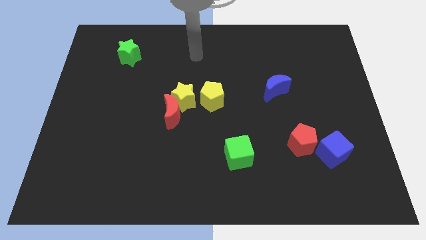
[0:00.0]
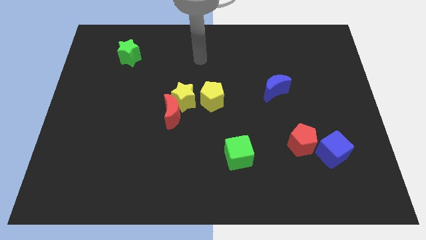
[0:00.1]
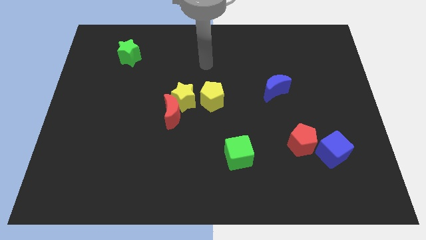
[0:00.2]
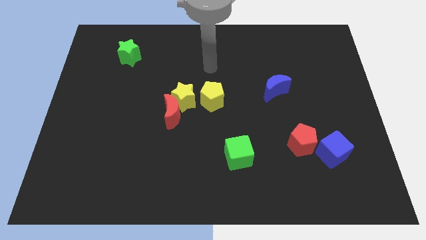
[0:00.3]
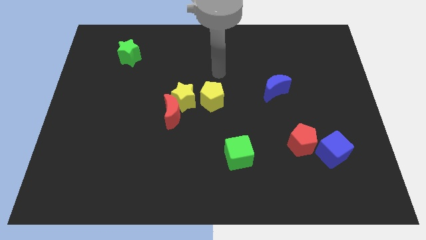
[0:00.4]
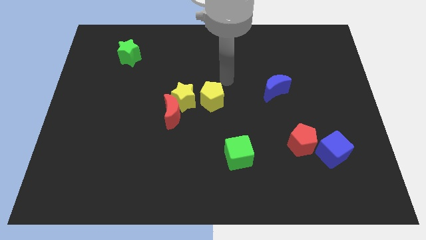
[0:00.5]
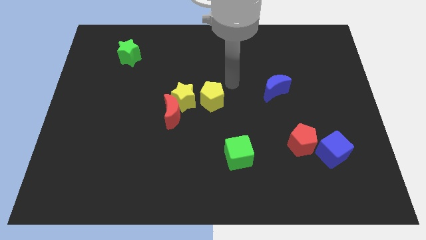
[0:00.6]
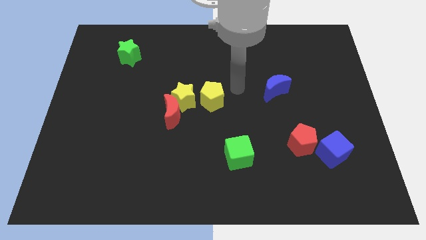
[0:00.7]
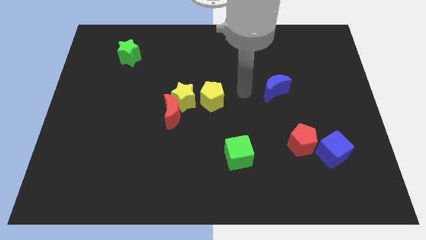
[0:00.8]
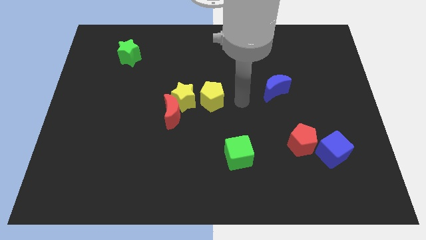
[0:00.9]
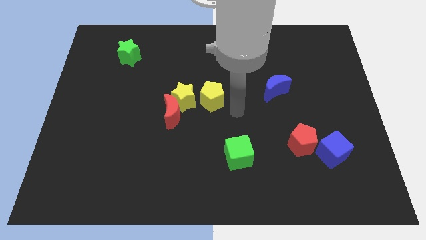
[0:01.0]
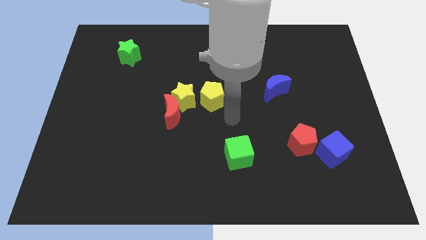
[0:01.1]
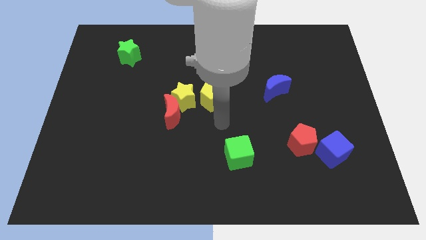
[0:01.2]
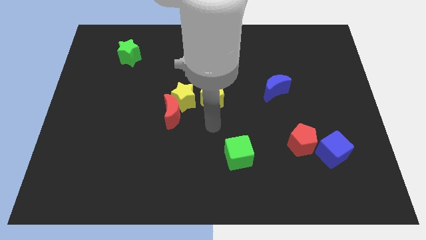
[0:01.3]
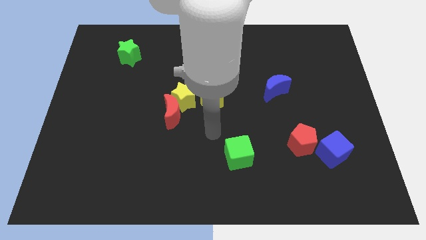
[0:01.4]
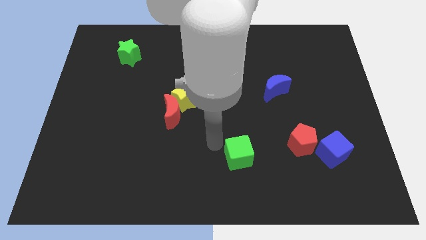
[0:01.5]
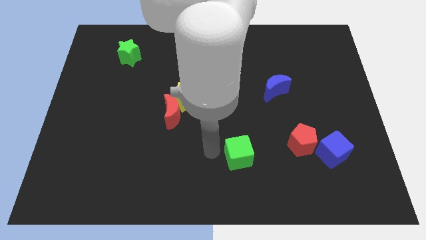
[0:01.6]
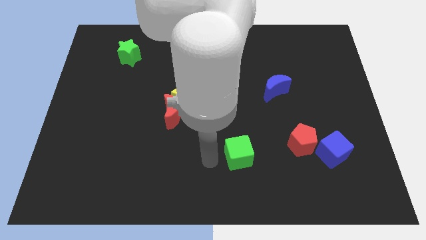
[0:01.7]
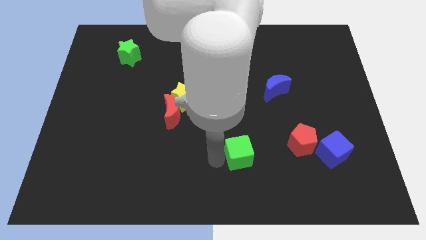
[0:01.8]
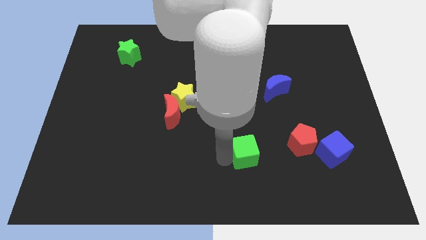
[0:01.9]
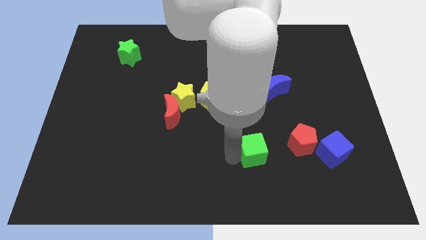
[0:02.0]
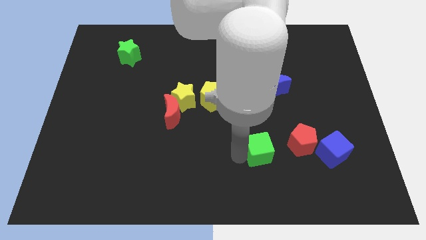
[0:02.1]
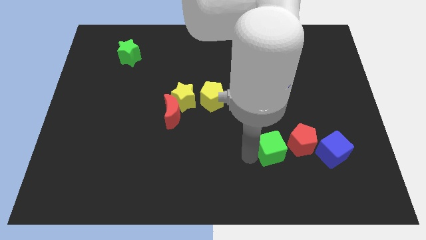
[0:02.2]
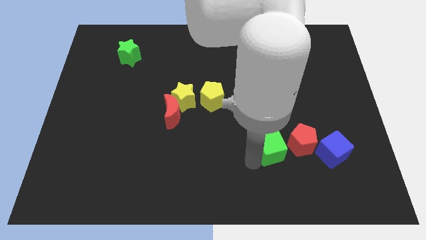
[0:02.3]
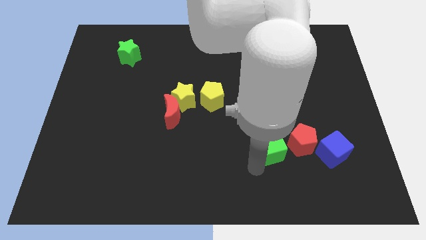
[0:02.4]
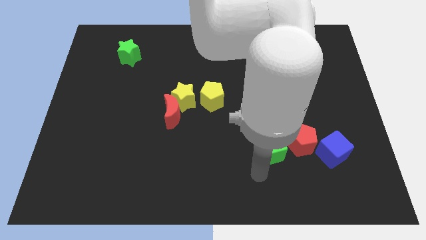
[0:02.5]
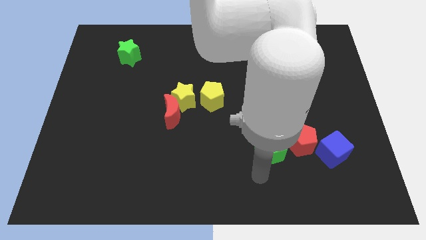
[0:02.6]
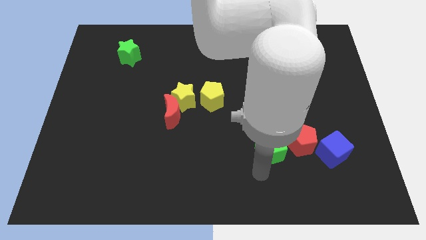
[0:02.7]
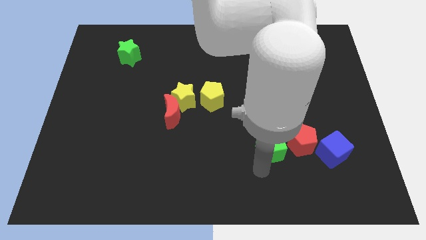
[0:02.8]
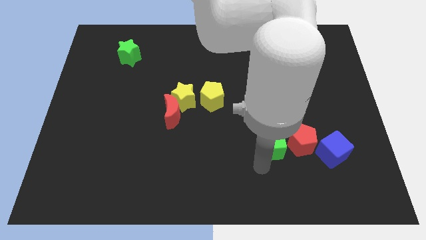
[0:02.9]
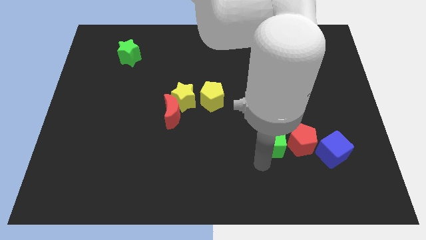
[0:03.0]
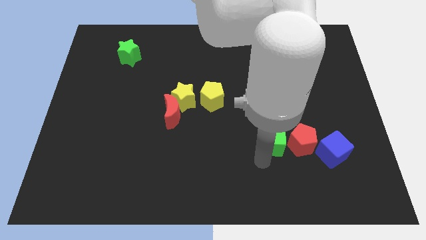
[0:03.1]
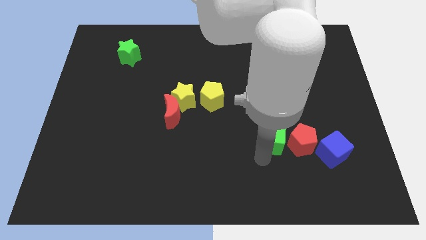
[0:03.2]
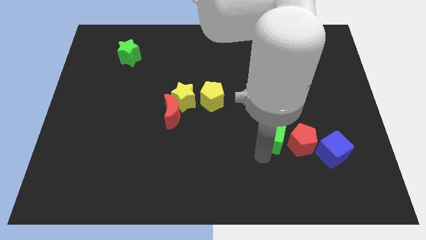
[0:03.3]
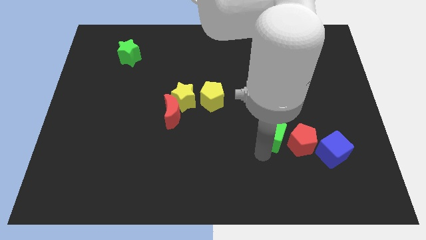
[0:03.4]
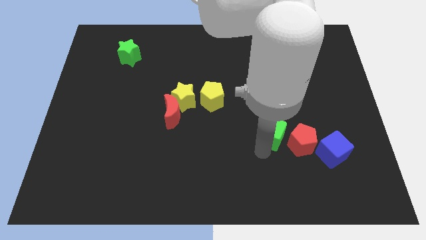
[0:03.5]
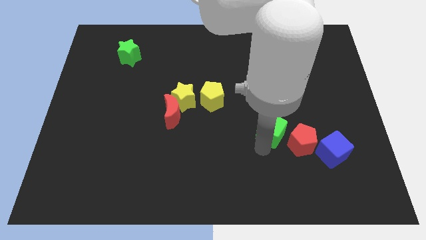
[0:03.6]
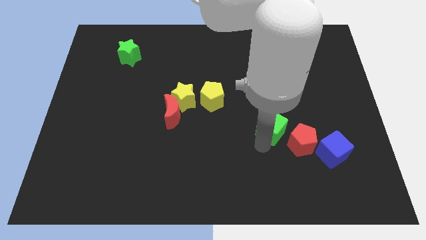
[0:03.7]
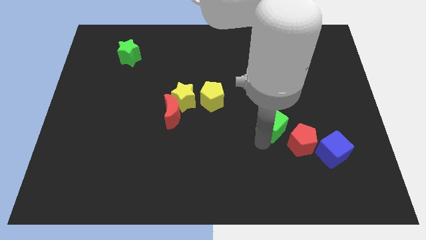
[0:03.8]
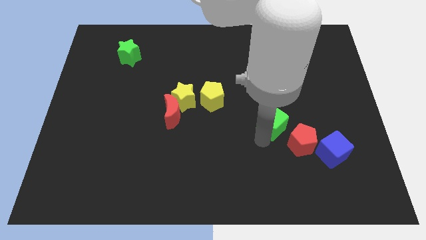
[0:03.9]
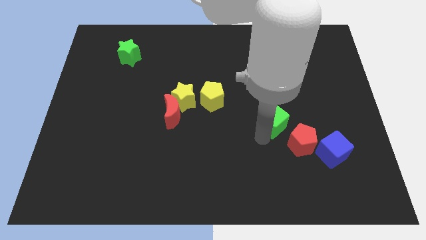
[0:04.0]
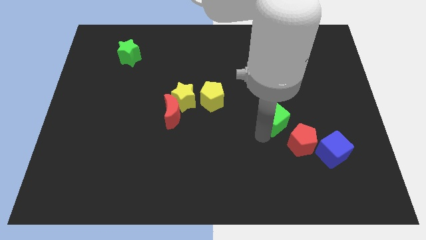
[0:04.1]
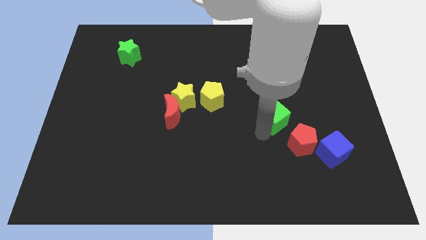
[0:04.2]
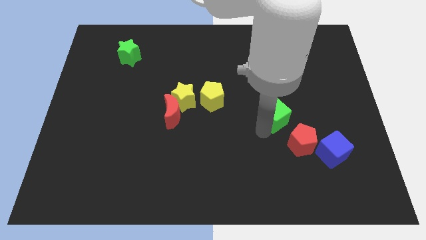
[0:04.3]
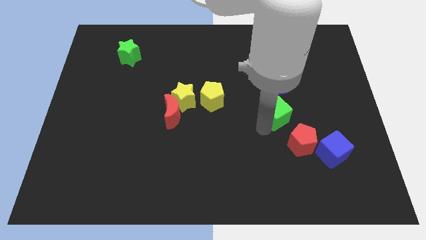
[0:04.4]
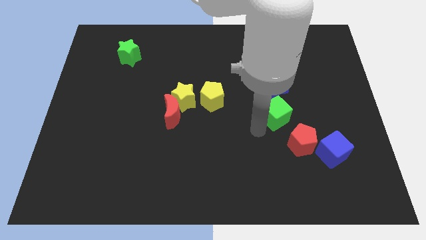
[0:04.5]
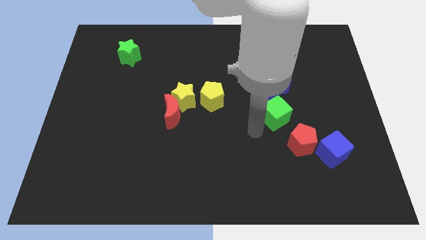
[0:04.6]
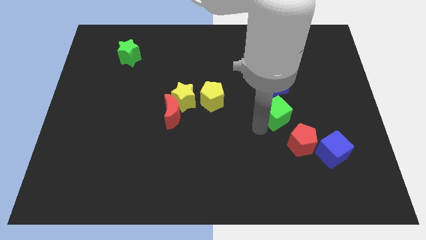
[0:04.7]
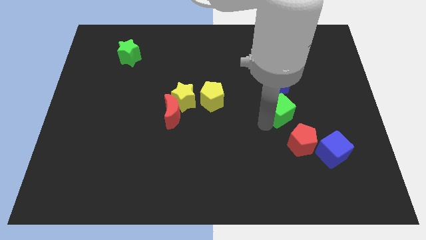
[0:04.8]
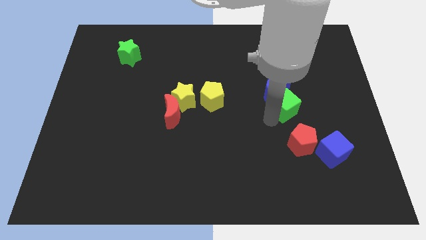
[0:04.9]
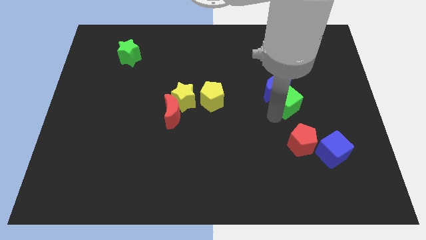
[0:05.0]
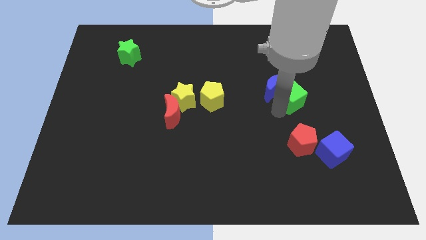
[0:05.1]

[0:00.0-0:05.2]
push the green cube diagonally upwards and to the right

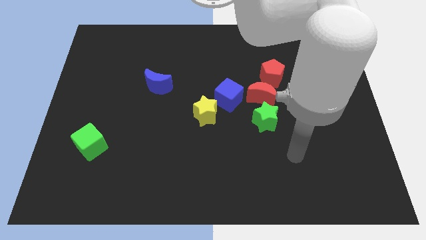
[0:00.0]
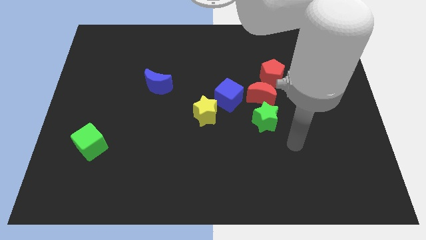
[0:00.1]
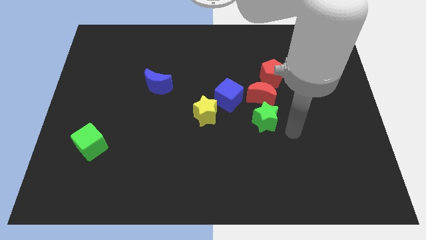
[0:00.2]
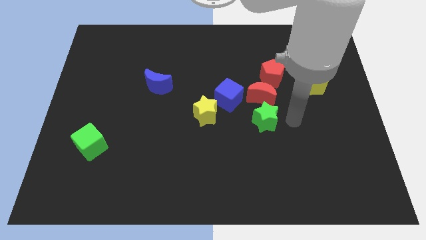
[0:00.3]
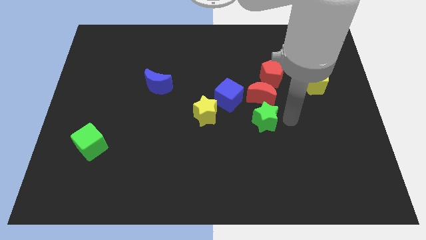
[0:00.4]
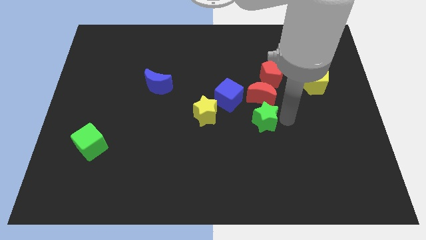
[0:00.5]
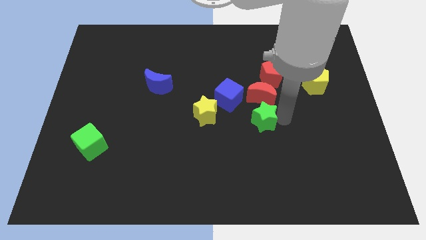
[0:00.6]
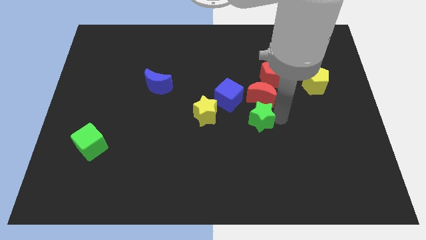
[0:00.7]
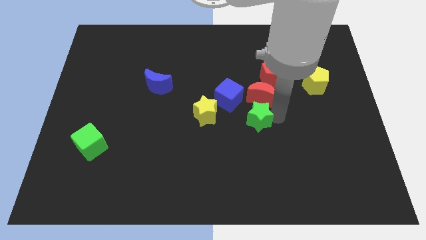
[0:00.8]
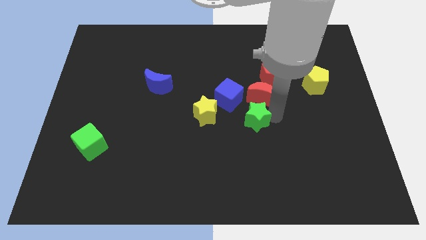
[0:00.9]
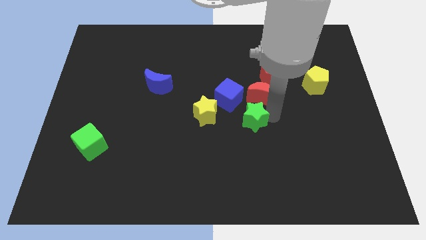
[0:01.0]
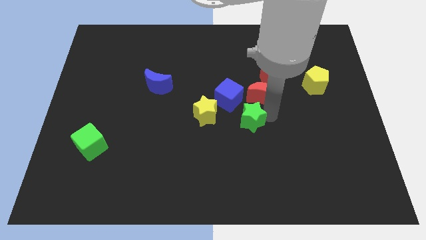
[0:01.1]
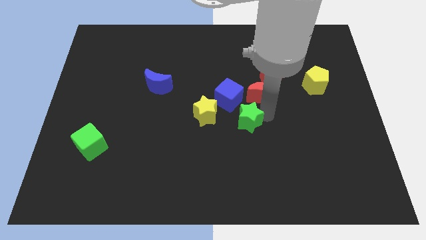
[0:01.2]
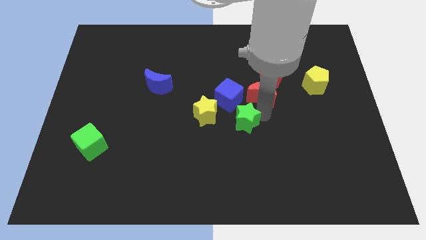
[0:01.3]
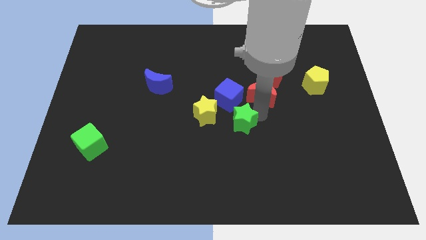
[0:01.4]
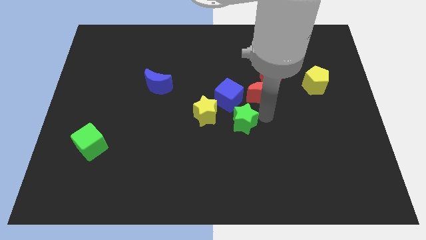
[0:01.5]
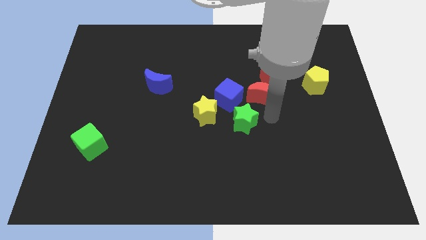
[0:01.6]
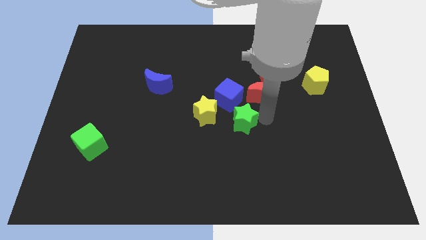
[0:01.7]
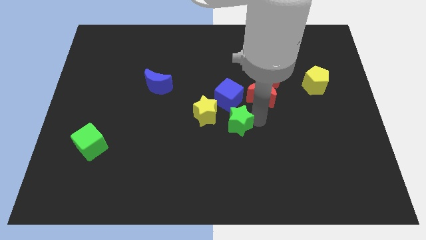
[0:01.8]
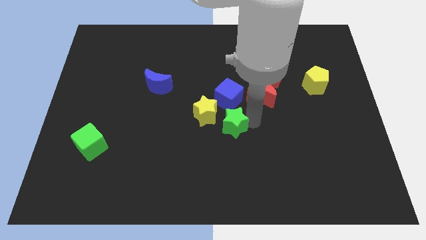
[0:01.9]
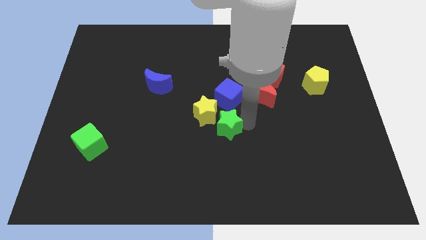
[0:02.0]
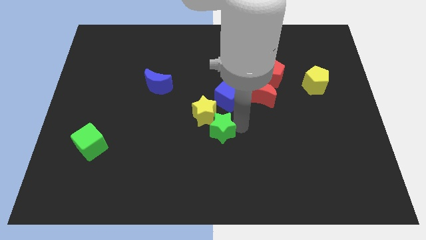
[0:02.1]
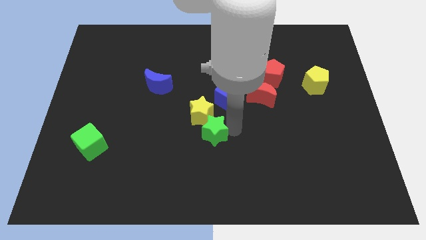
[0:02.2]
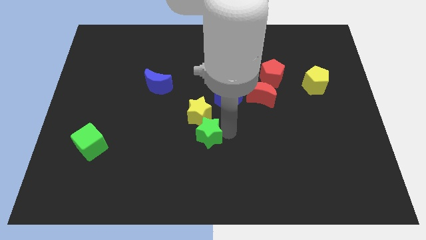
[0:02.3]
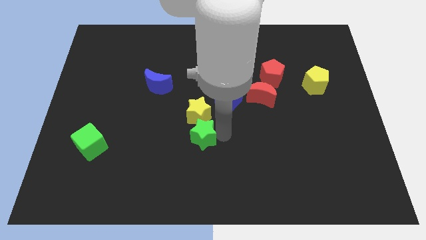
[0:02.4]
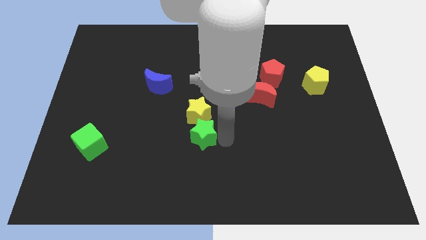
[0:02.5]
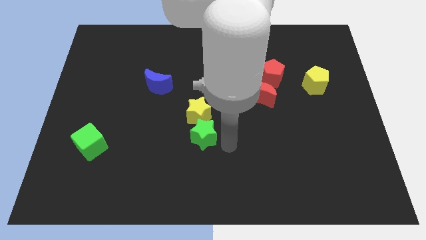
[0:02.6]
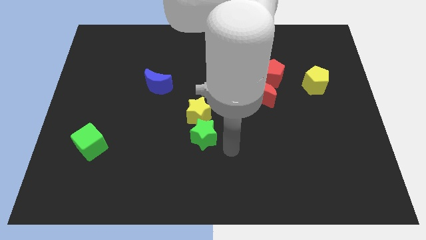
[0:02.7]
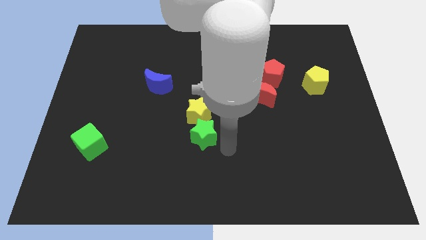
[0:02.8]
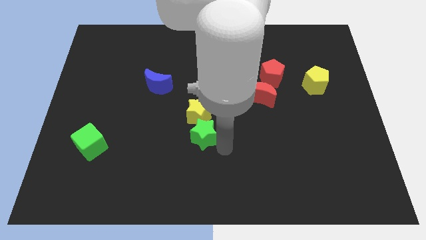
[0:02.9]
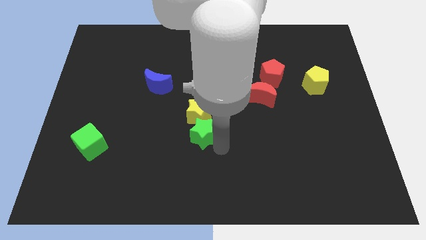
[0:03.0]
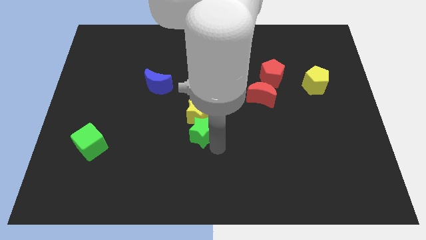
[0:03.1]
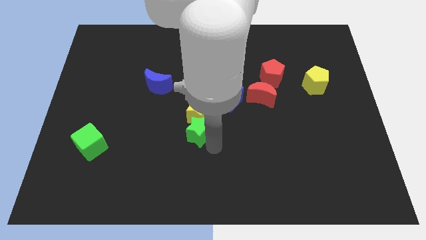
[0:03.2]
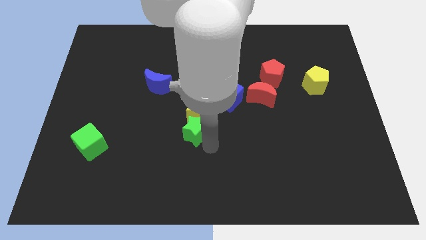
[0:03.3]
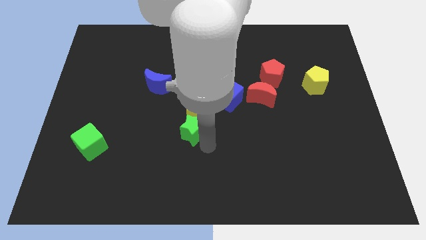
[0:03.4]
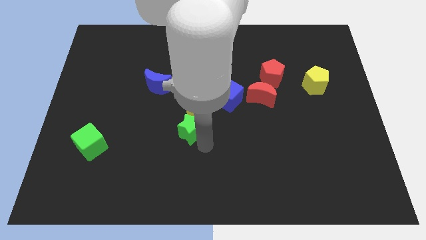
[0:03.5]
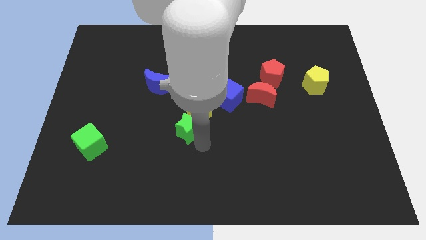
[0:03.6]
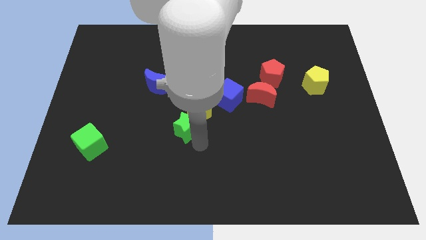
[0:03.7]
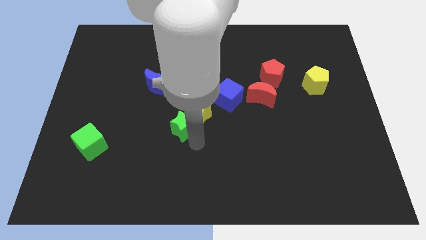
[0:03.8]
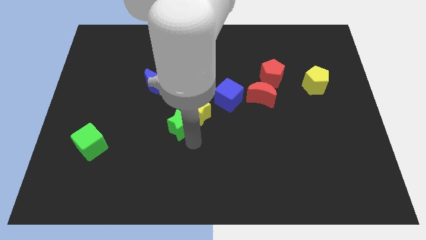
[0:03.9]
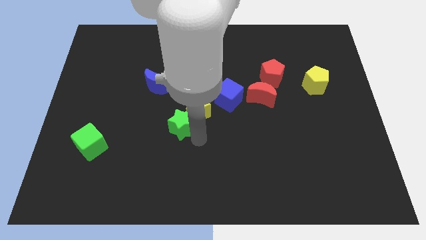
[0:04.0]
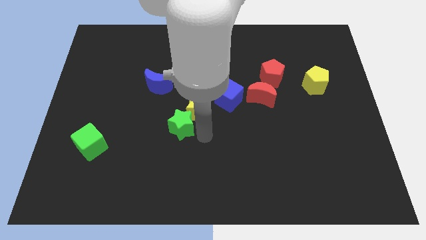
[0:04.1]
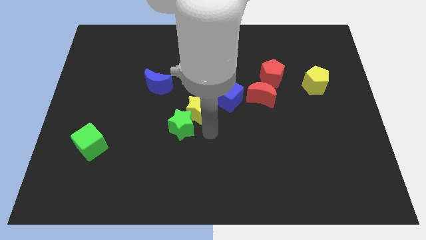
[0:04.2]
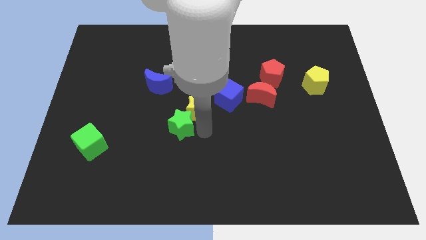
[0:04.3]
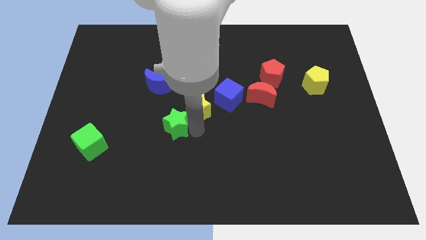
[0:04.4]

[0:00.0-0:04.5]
push the green star to the left
